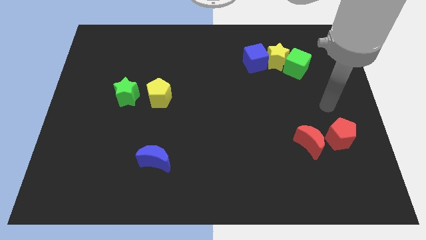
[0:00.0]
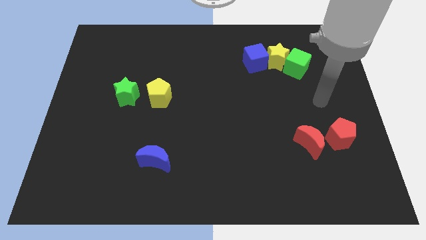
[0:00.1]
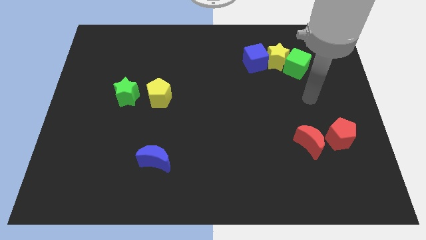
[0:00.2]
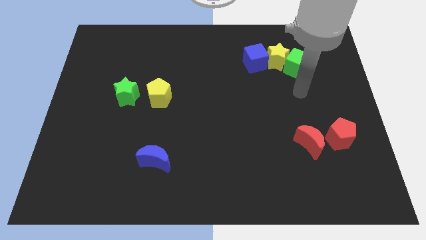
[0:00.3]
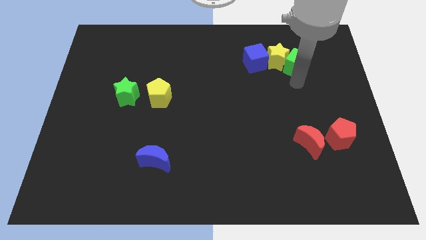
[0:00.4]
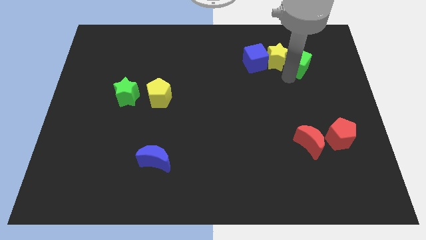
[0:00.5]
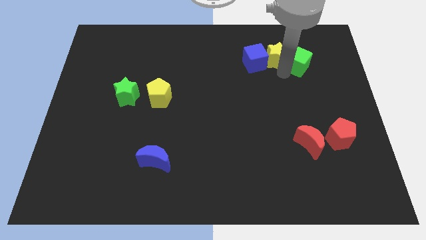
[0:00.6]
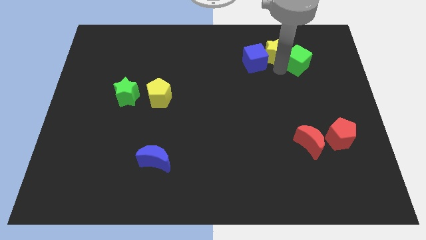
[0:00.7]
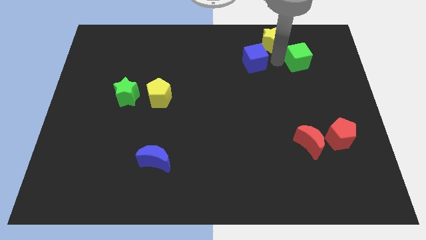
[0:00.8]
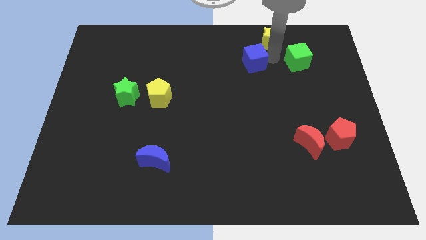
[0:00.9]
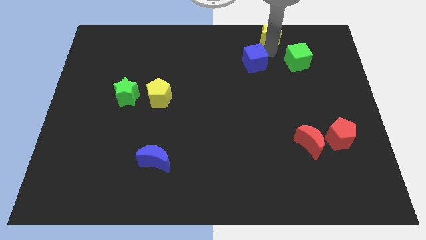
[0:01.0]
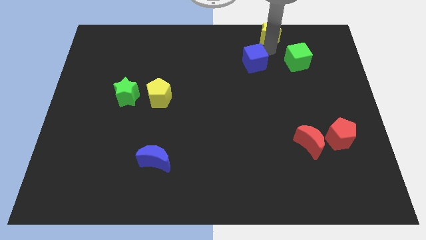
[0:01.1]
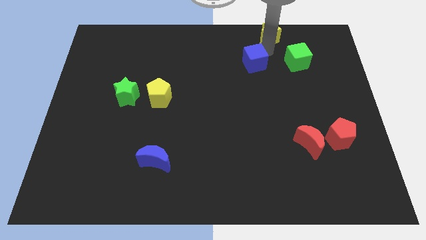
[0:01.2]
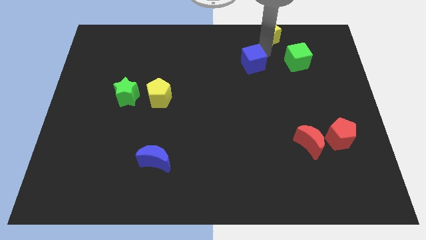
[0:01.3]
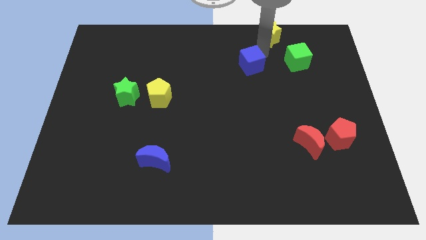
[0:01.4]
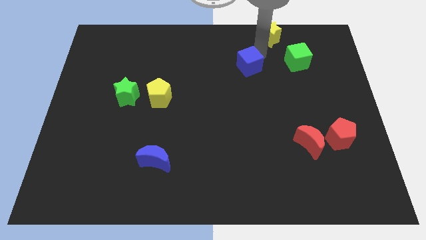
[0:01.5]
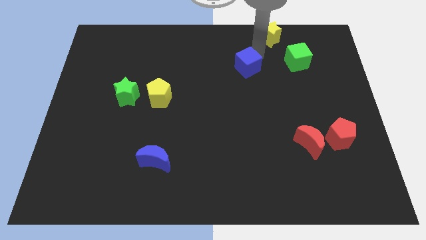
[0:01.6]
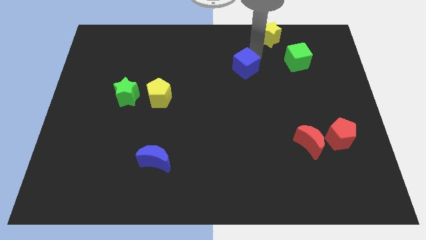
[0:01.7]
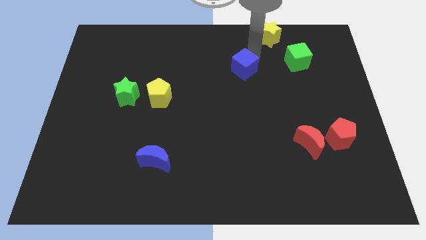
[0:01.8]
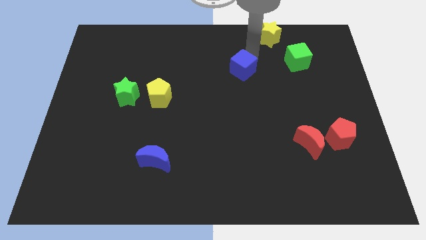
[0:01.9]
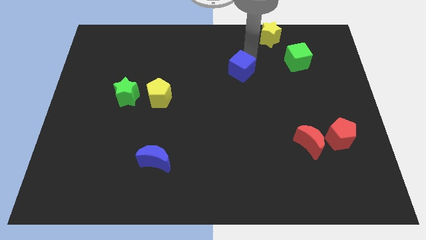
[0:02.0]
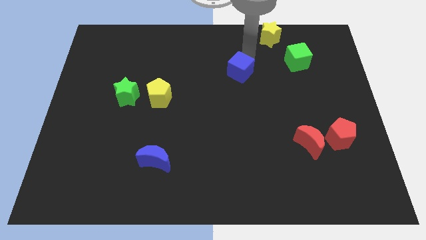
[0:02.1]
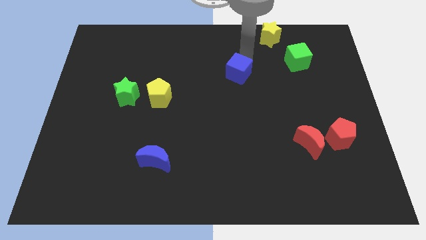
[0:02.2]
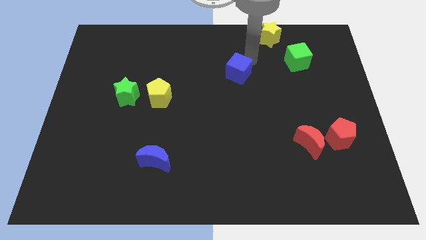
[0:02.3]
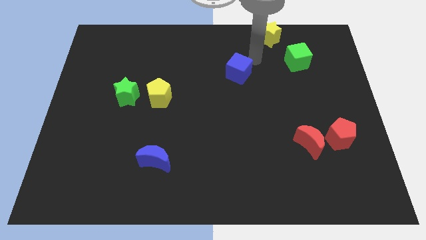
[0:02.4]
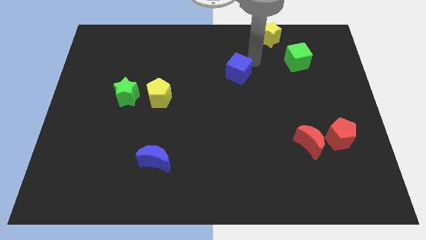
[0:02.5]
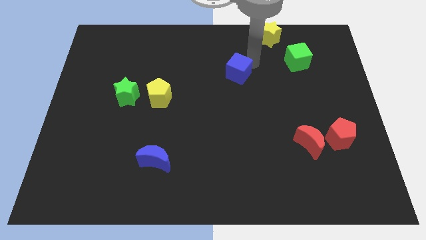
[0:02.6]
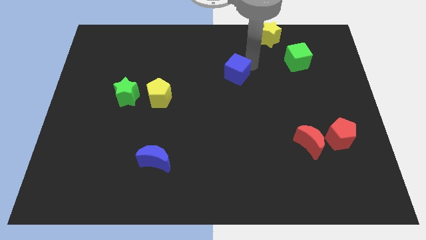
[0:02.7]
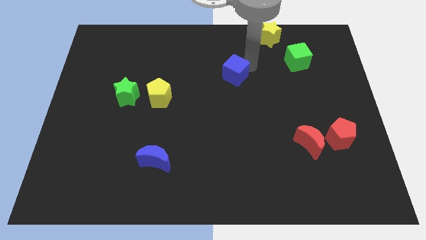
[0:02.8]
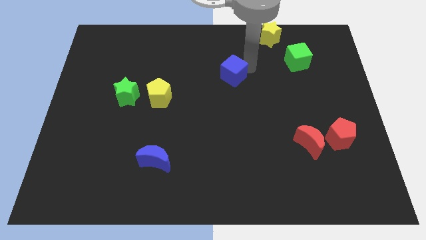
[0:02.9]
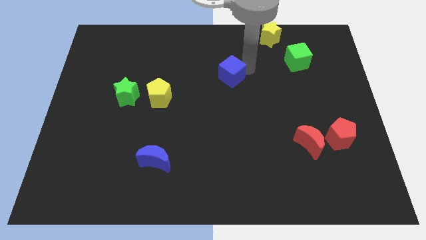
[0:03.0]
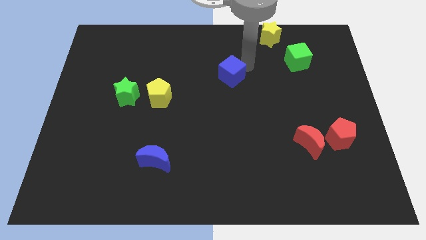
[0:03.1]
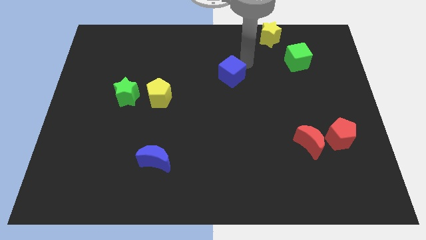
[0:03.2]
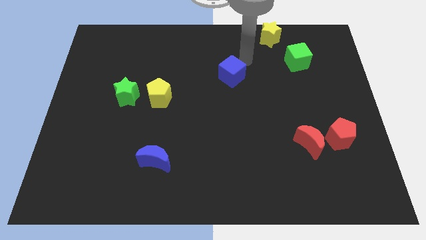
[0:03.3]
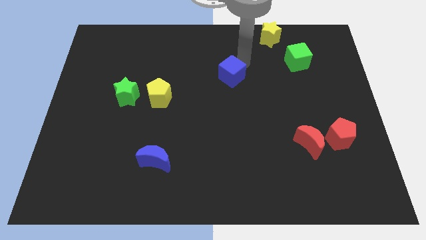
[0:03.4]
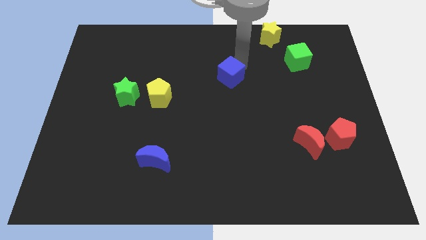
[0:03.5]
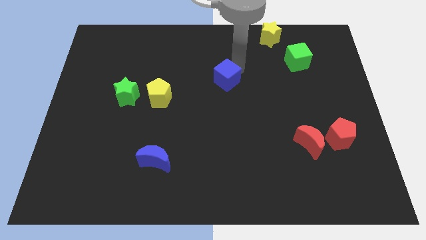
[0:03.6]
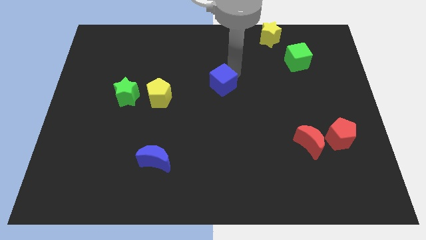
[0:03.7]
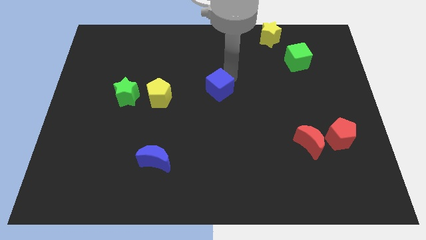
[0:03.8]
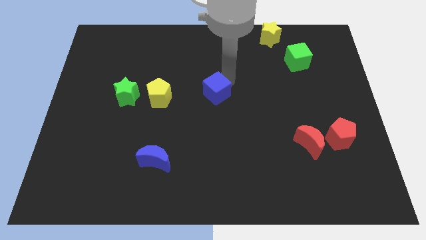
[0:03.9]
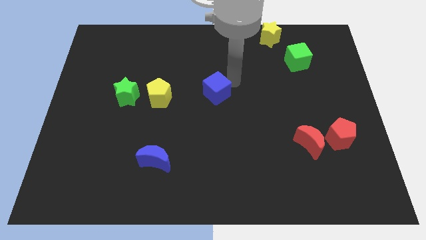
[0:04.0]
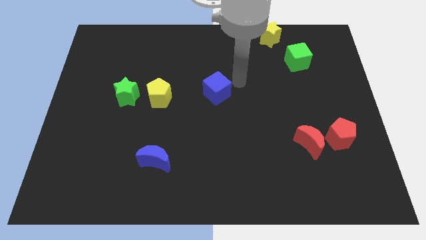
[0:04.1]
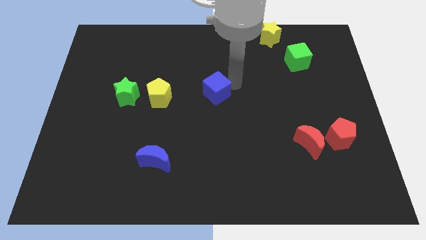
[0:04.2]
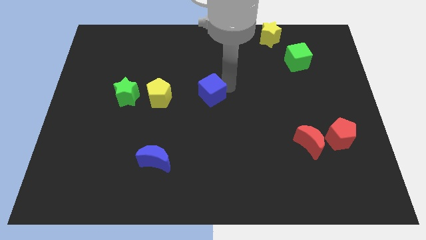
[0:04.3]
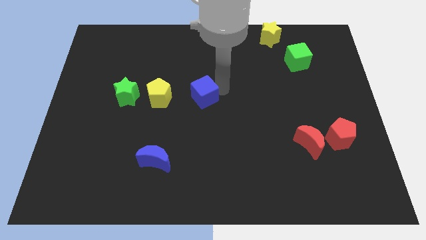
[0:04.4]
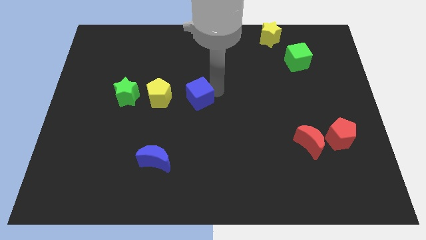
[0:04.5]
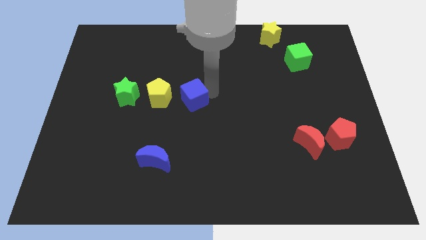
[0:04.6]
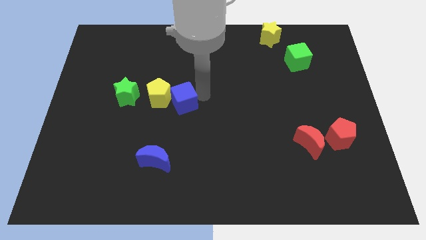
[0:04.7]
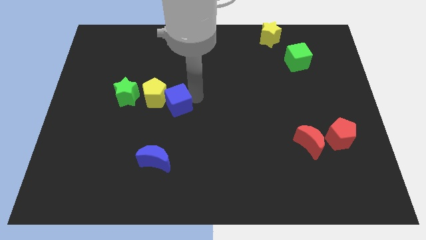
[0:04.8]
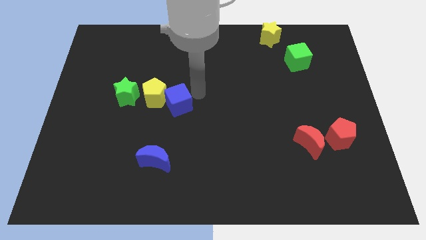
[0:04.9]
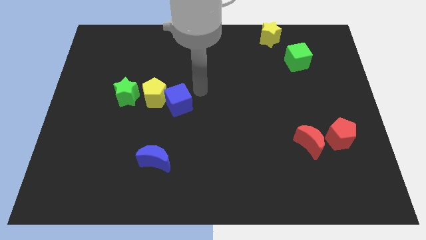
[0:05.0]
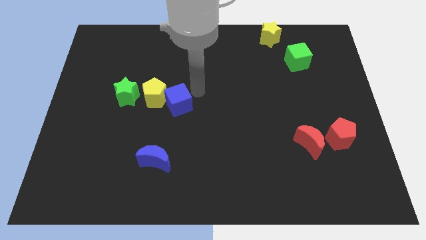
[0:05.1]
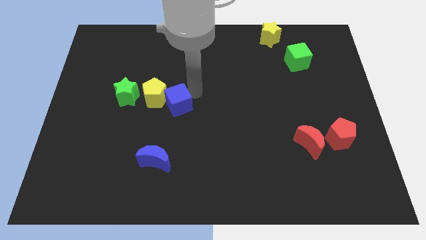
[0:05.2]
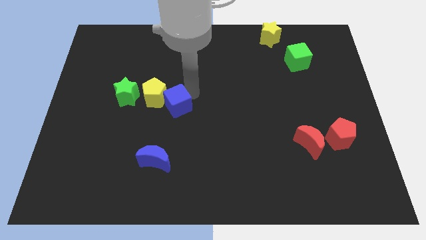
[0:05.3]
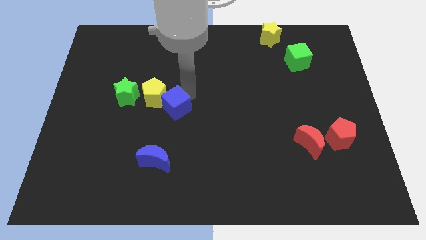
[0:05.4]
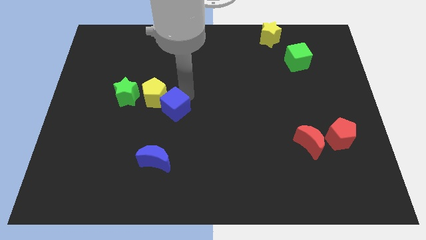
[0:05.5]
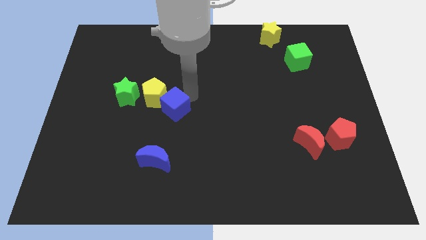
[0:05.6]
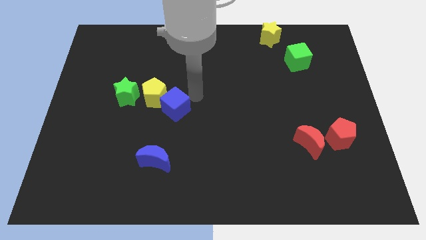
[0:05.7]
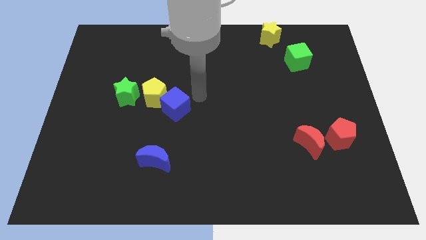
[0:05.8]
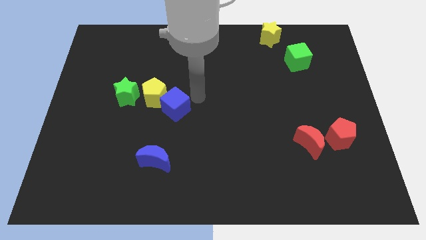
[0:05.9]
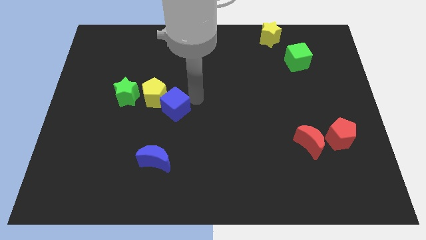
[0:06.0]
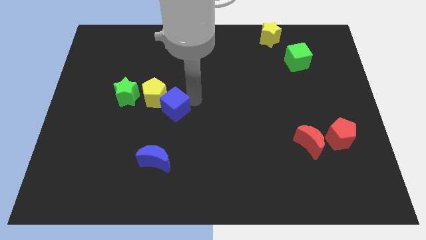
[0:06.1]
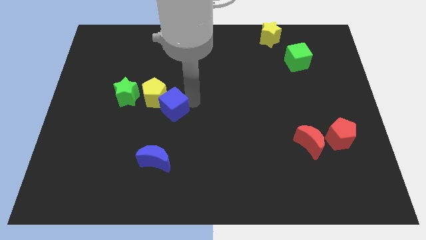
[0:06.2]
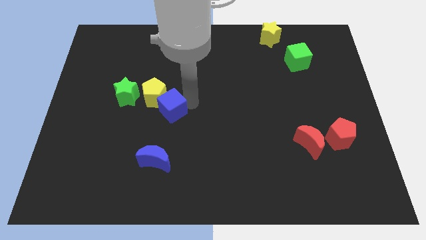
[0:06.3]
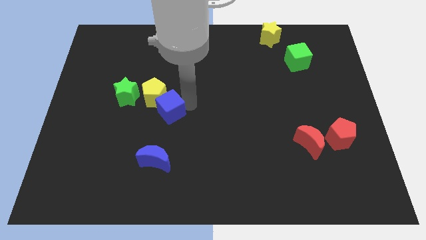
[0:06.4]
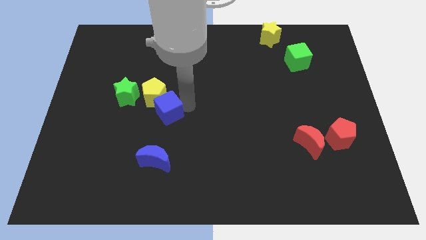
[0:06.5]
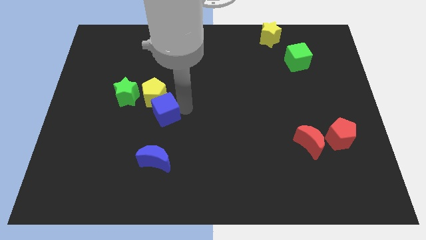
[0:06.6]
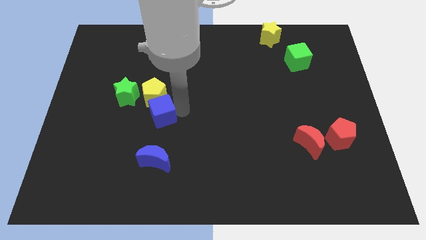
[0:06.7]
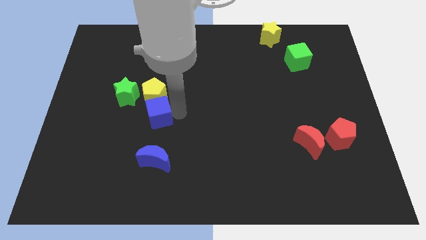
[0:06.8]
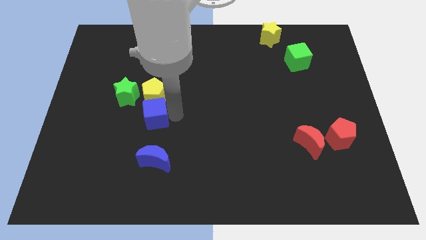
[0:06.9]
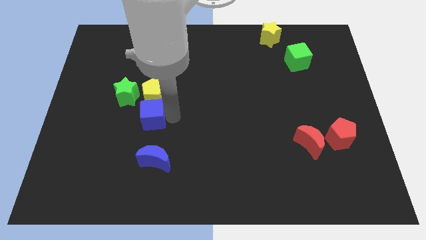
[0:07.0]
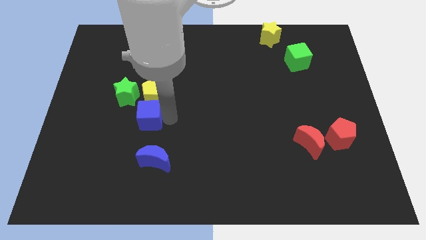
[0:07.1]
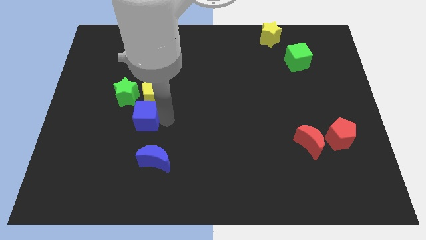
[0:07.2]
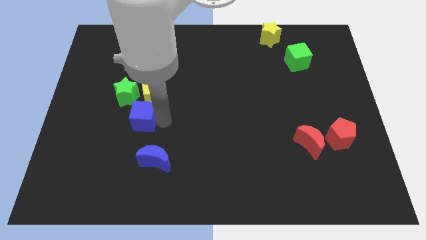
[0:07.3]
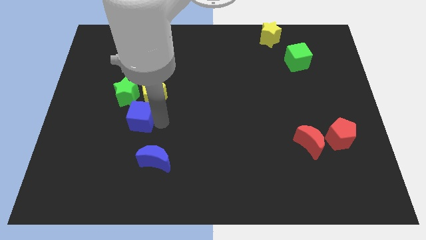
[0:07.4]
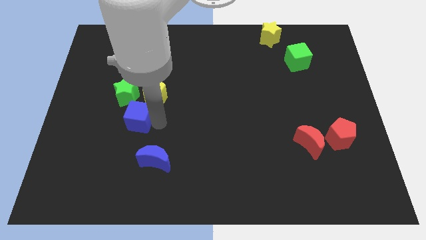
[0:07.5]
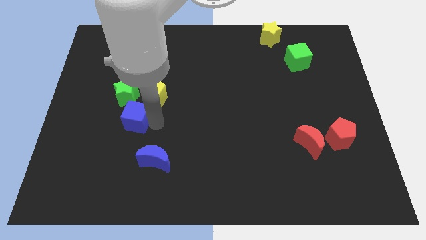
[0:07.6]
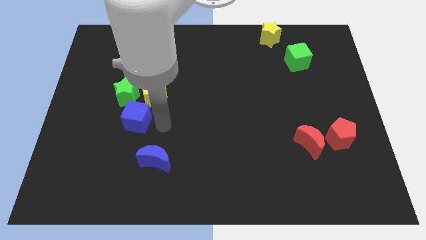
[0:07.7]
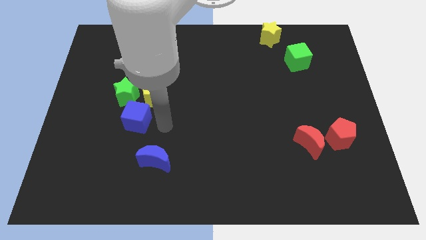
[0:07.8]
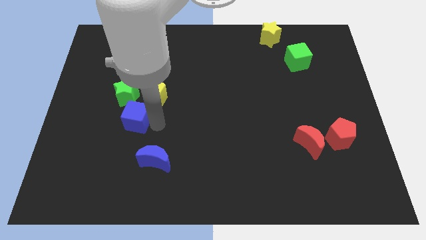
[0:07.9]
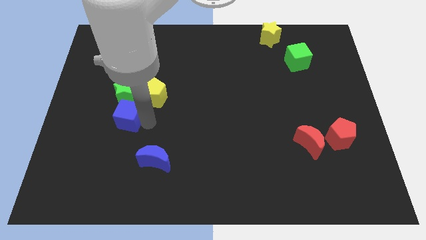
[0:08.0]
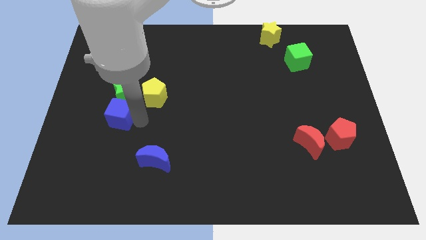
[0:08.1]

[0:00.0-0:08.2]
put the blue cube to the bottom left of the green star
